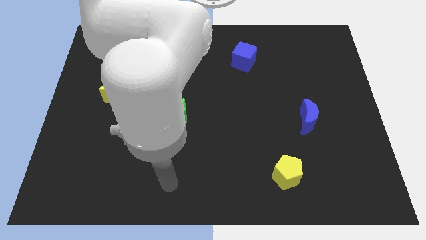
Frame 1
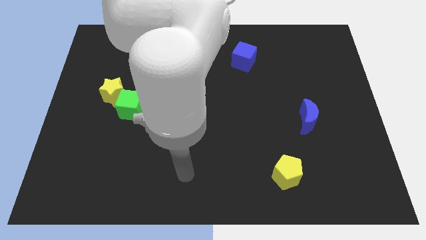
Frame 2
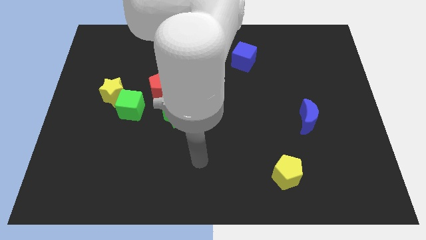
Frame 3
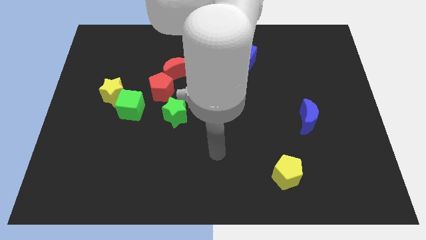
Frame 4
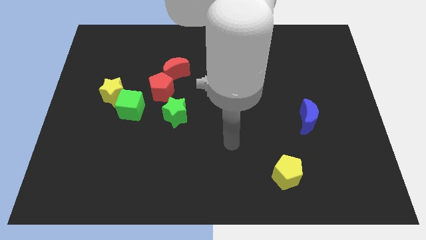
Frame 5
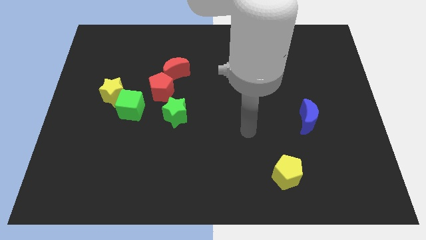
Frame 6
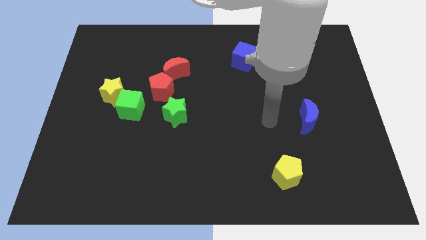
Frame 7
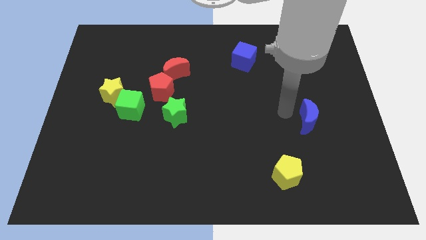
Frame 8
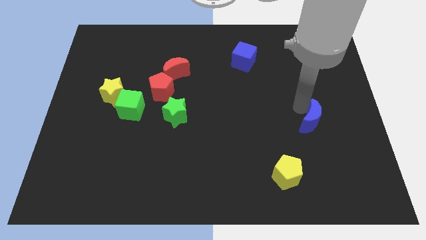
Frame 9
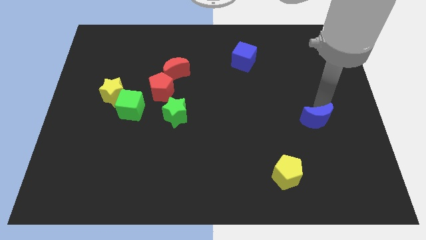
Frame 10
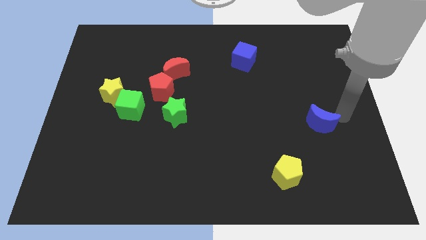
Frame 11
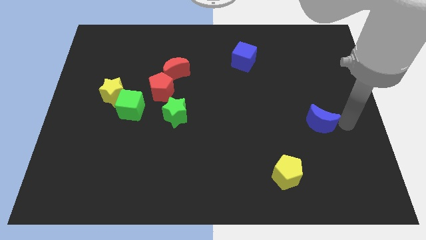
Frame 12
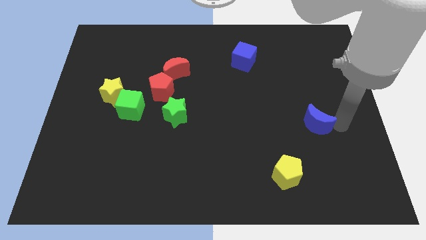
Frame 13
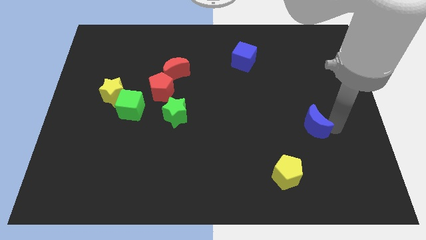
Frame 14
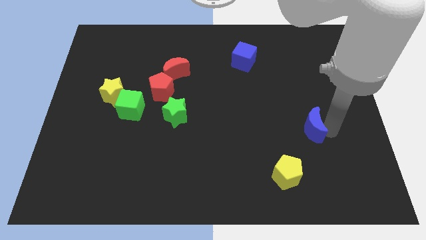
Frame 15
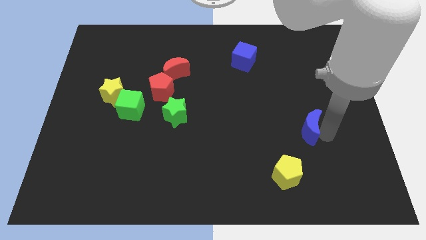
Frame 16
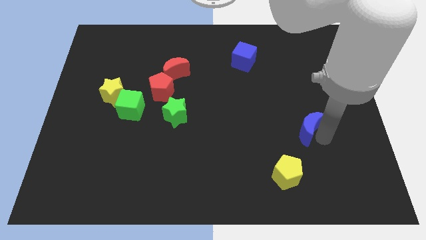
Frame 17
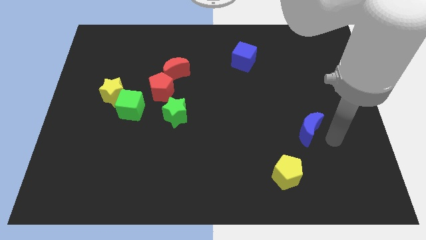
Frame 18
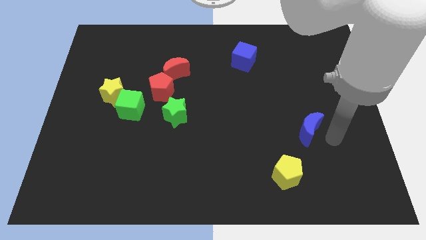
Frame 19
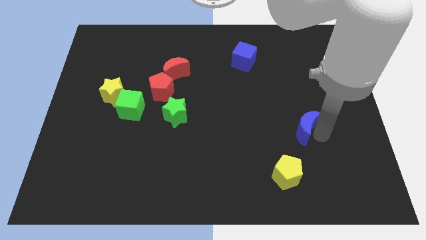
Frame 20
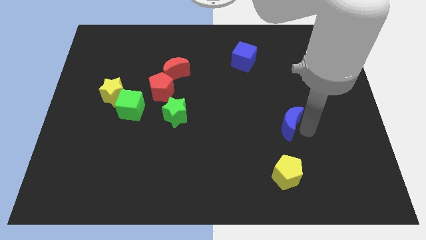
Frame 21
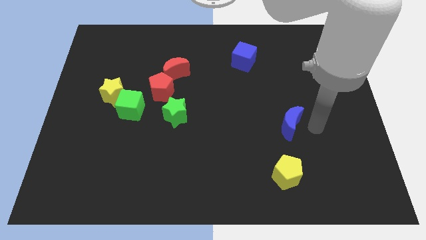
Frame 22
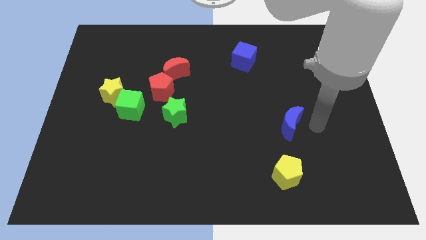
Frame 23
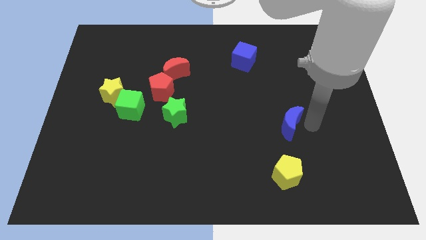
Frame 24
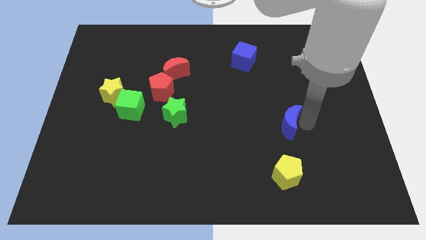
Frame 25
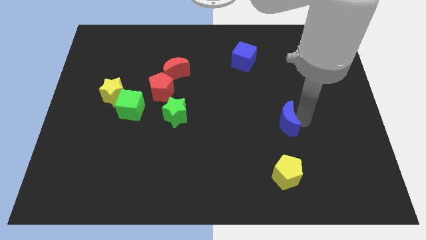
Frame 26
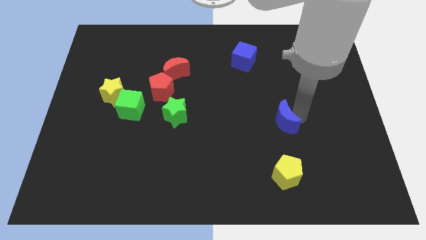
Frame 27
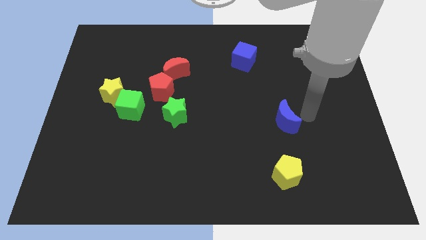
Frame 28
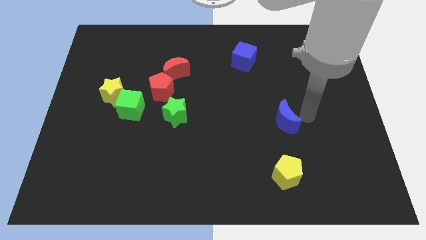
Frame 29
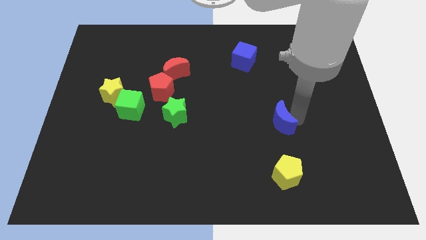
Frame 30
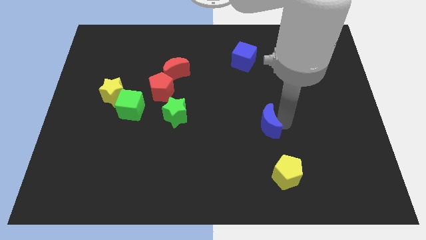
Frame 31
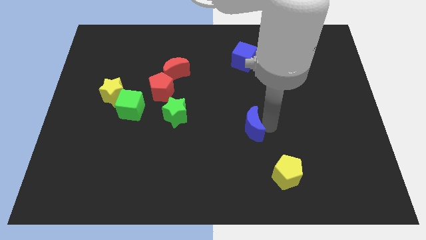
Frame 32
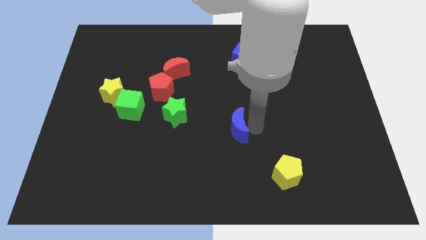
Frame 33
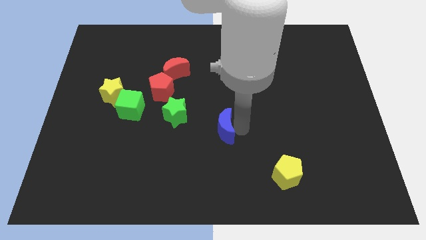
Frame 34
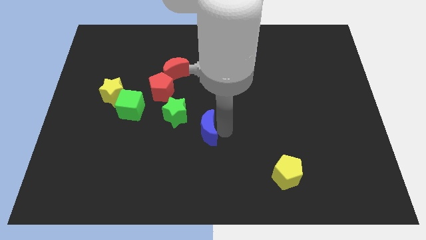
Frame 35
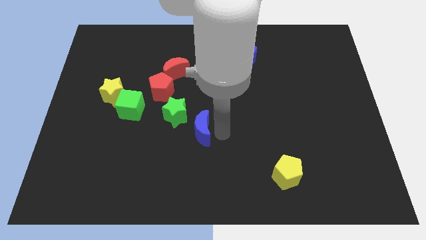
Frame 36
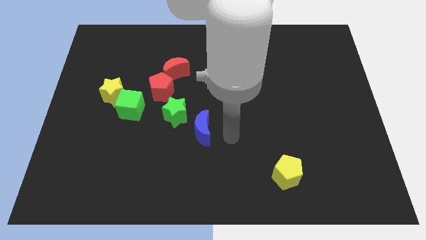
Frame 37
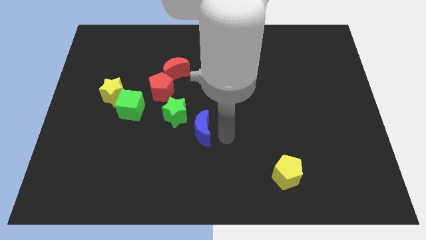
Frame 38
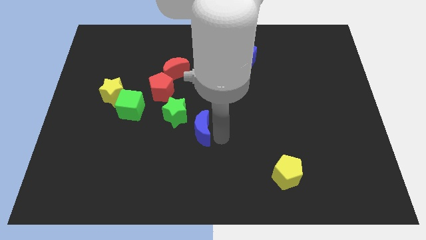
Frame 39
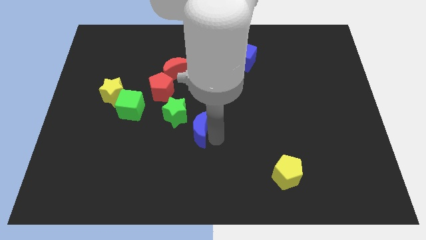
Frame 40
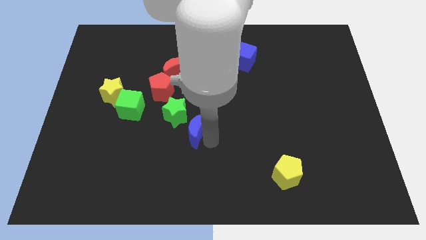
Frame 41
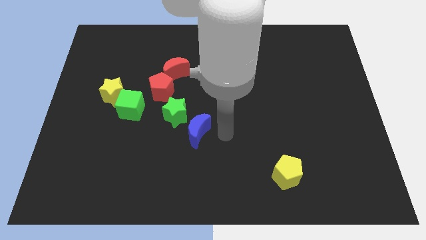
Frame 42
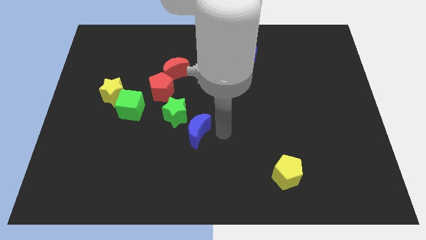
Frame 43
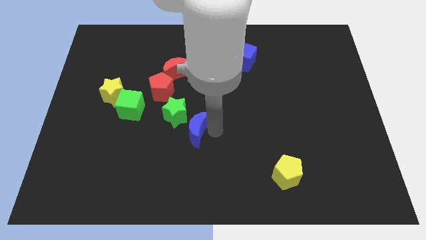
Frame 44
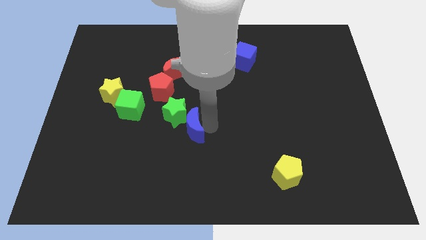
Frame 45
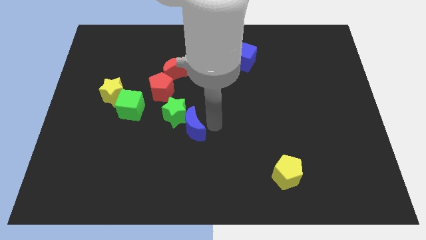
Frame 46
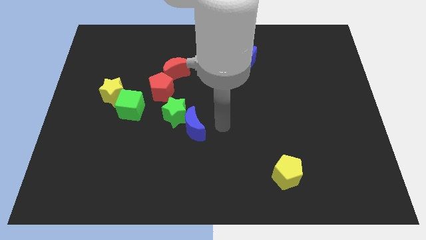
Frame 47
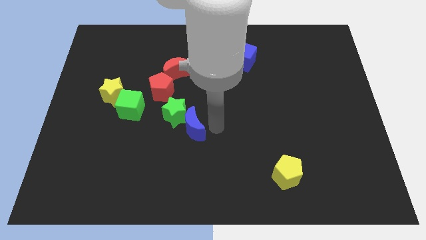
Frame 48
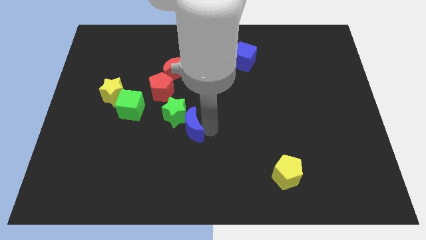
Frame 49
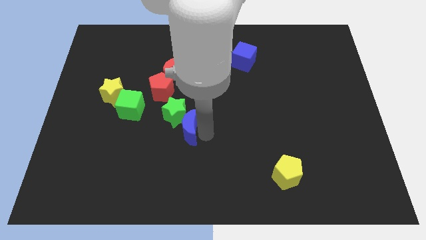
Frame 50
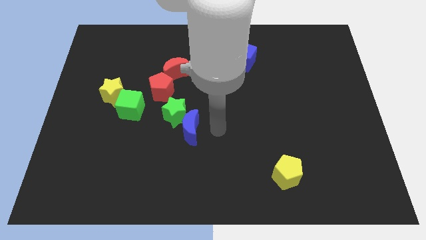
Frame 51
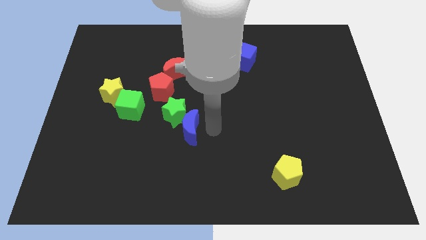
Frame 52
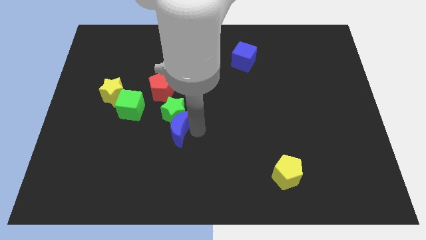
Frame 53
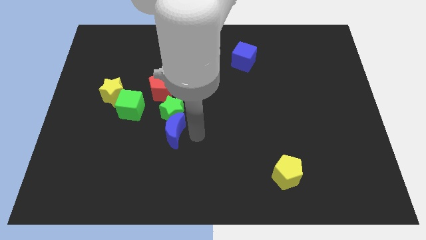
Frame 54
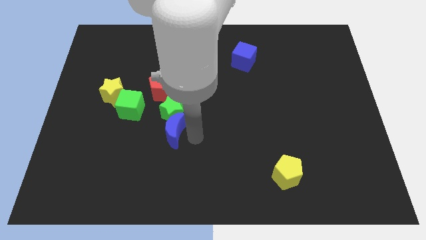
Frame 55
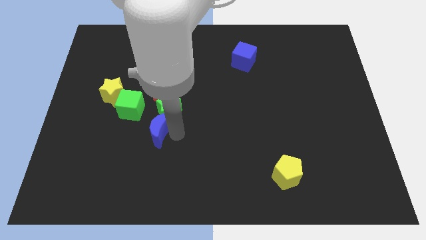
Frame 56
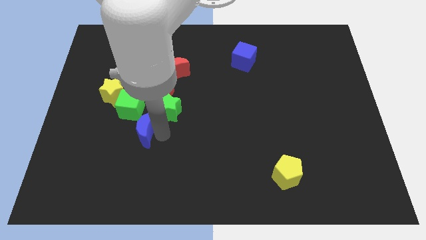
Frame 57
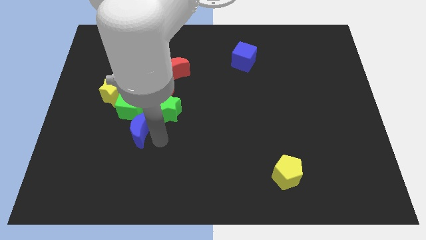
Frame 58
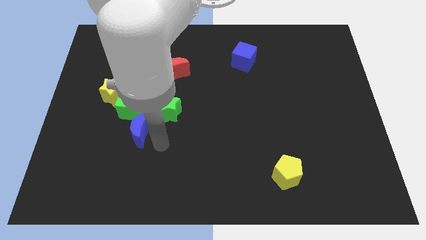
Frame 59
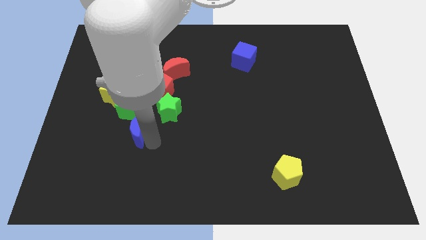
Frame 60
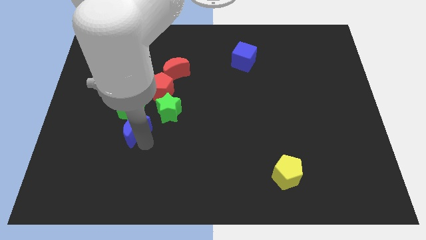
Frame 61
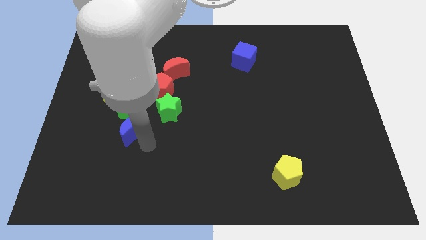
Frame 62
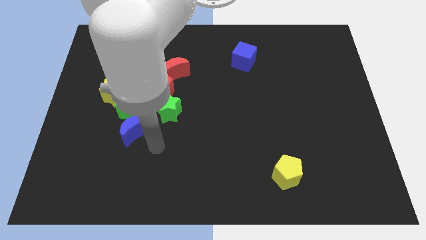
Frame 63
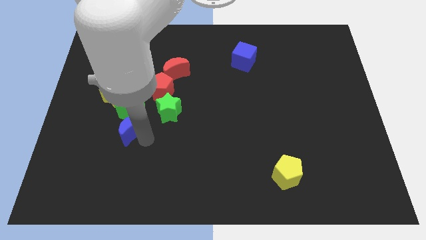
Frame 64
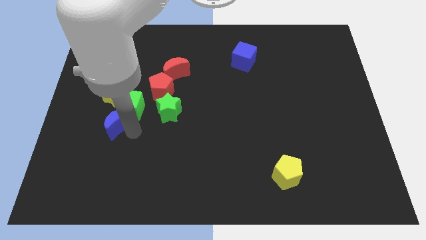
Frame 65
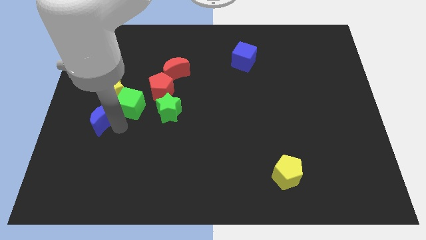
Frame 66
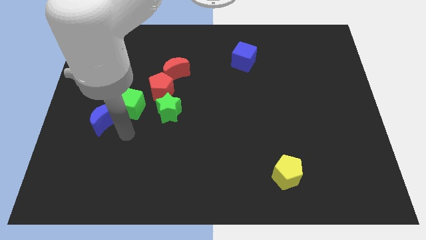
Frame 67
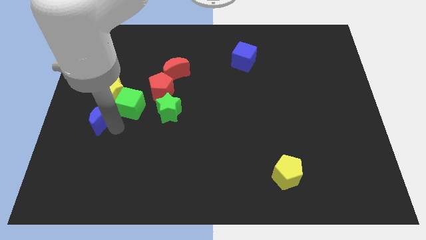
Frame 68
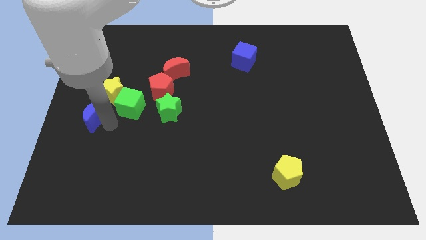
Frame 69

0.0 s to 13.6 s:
slide the blue moon to the left side of the board
